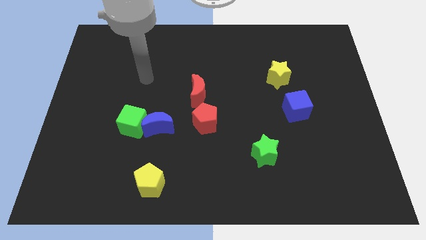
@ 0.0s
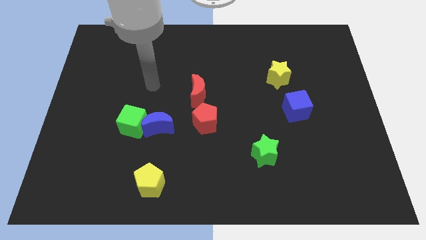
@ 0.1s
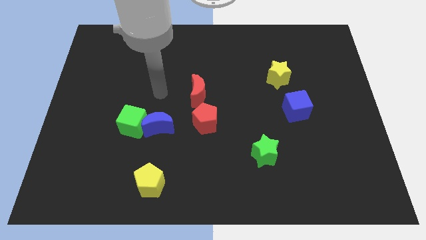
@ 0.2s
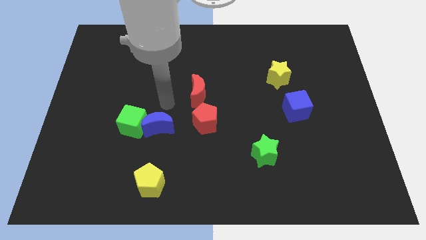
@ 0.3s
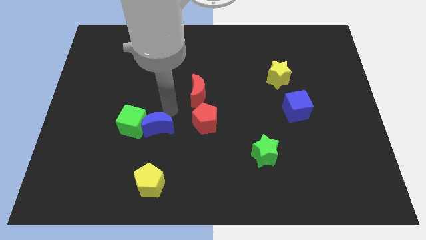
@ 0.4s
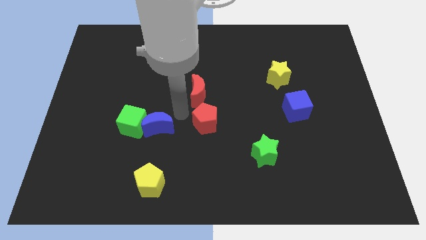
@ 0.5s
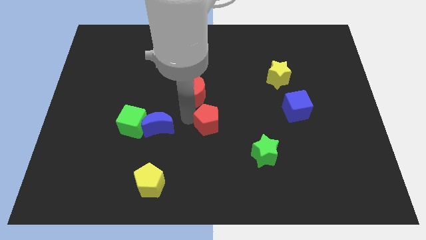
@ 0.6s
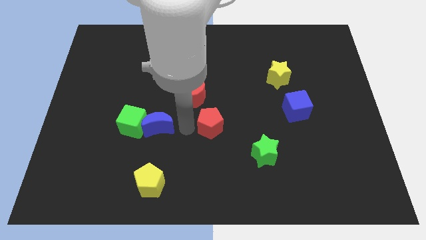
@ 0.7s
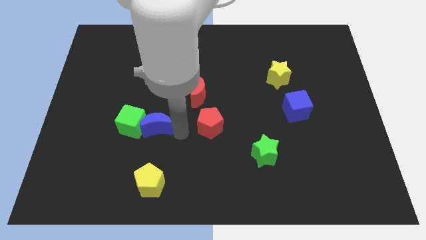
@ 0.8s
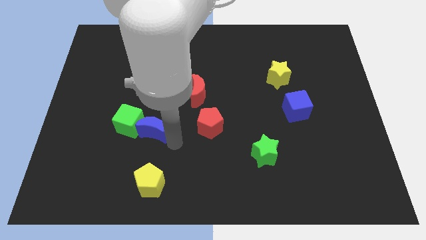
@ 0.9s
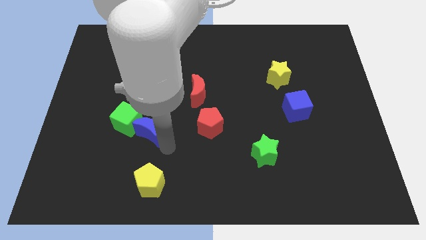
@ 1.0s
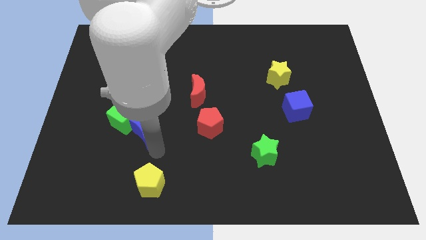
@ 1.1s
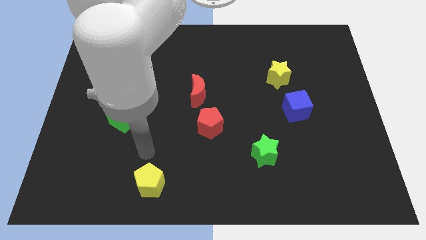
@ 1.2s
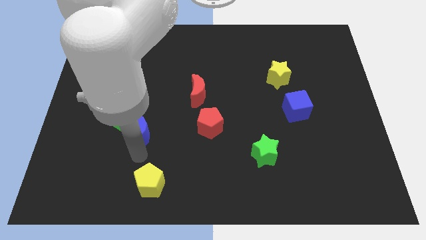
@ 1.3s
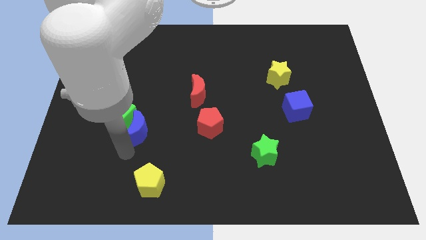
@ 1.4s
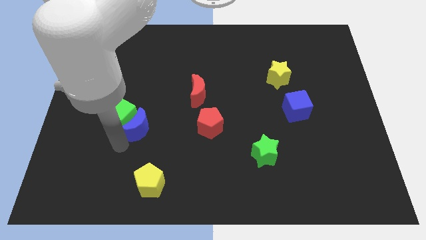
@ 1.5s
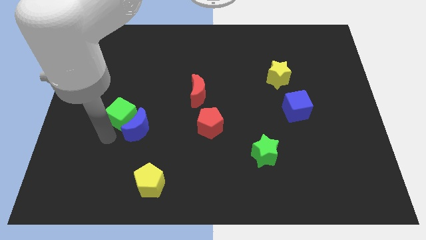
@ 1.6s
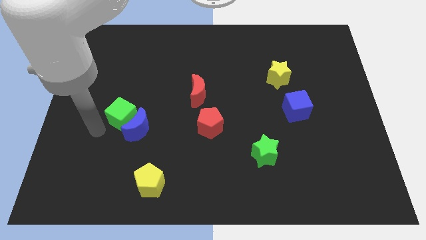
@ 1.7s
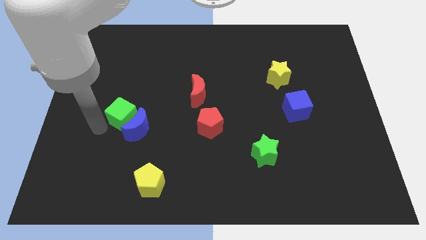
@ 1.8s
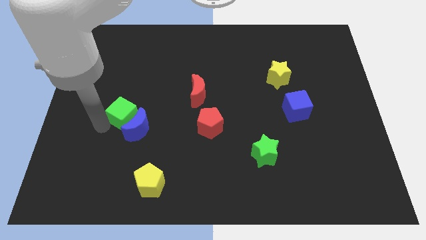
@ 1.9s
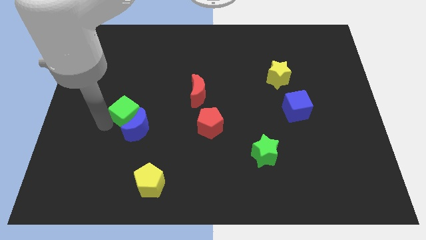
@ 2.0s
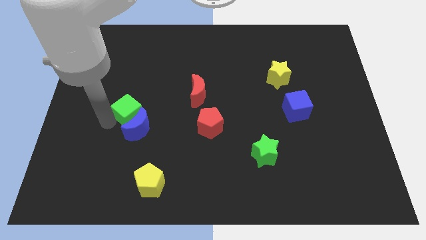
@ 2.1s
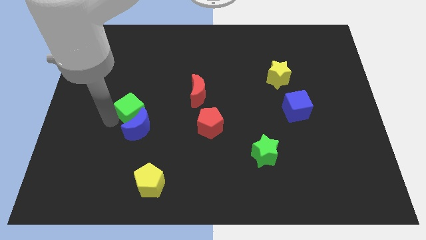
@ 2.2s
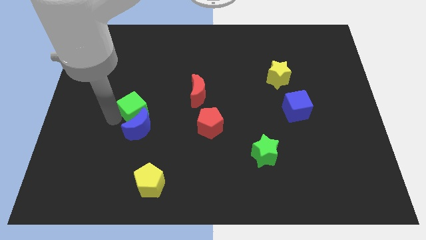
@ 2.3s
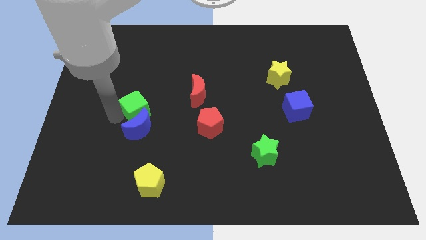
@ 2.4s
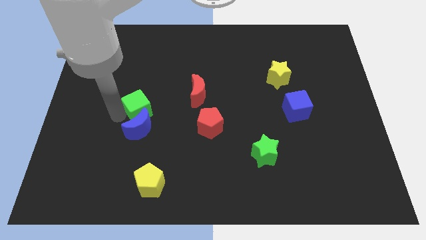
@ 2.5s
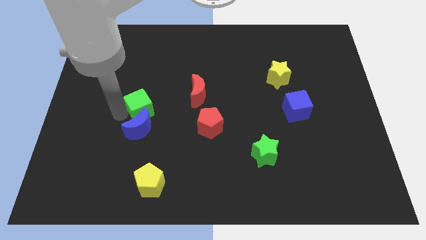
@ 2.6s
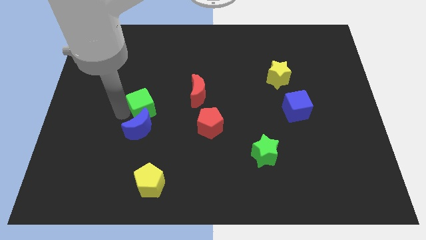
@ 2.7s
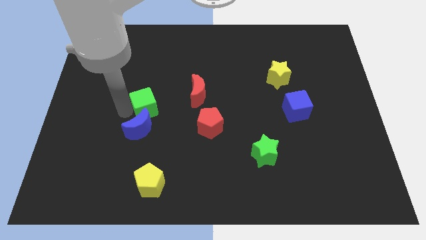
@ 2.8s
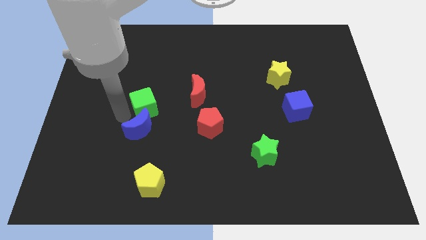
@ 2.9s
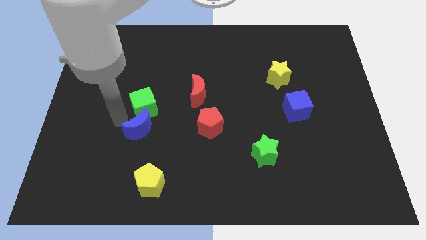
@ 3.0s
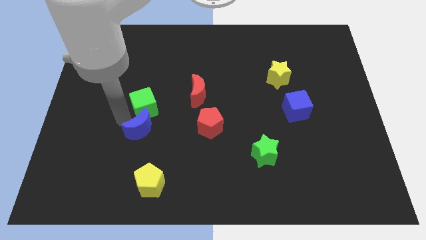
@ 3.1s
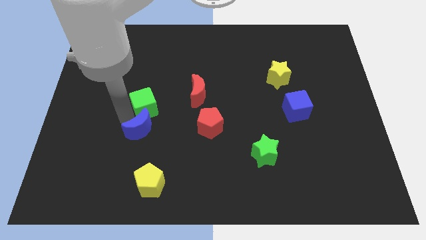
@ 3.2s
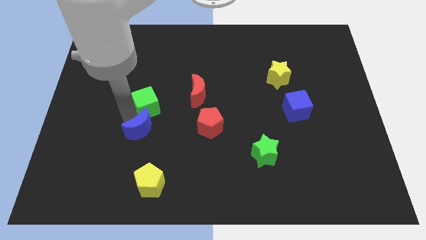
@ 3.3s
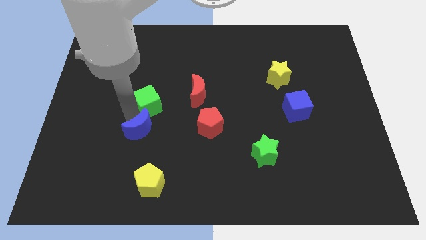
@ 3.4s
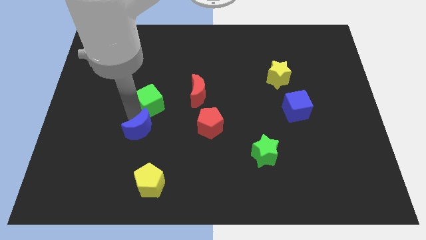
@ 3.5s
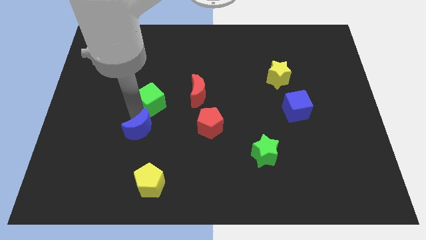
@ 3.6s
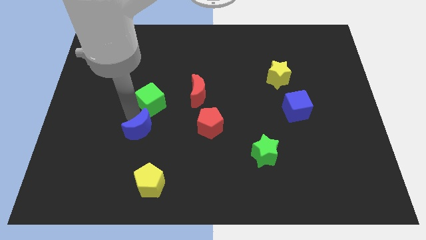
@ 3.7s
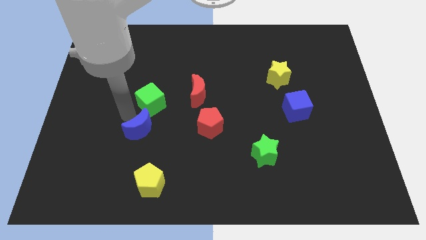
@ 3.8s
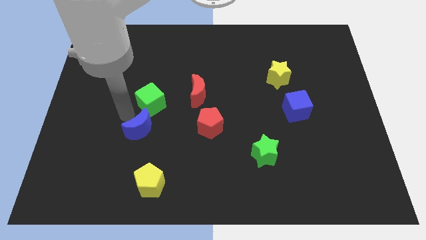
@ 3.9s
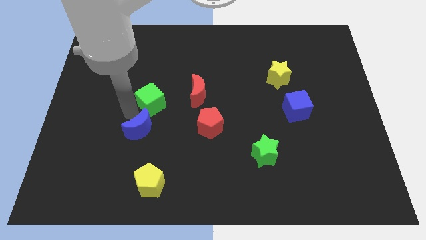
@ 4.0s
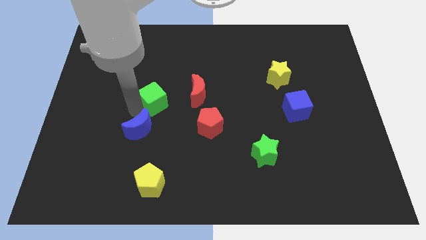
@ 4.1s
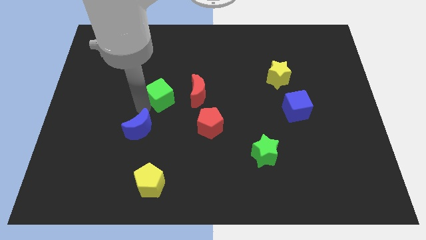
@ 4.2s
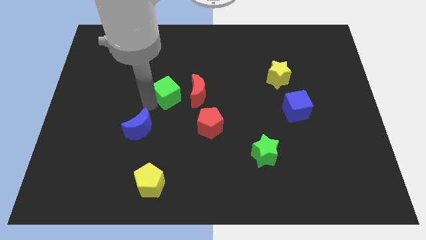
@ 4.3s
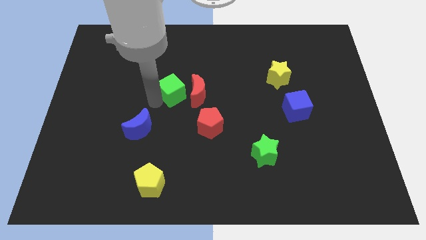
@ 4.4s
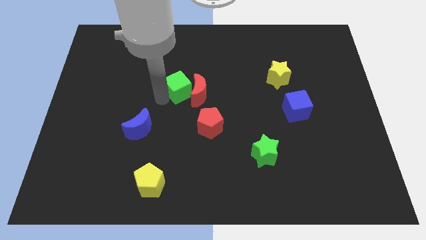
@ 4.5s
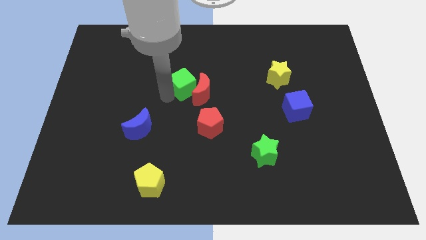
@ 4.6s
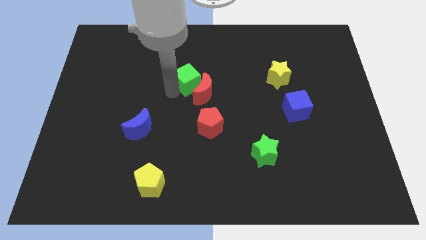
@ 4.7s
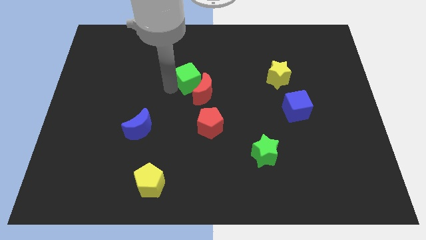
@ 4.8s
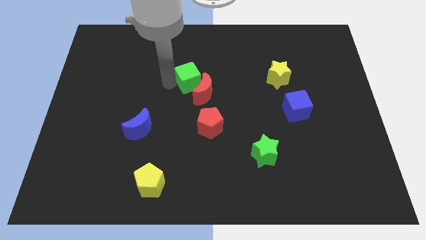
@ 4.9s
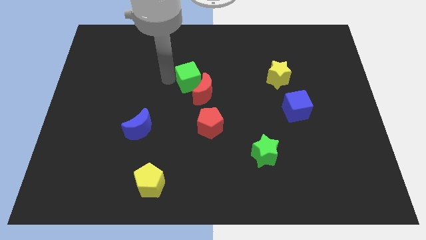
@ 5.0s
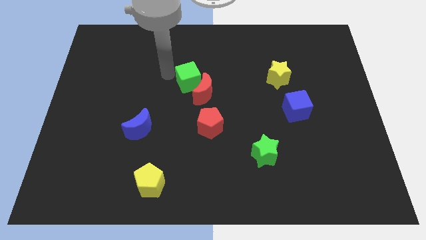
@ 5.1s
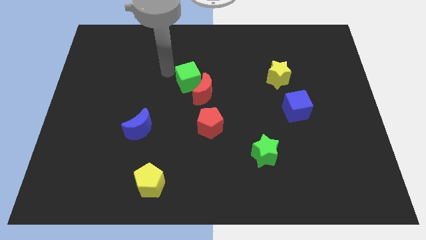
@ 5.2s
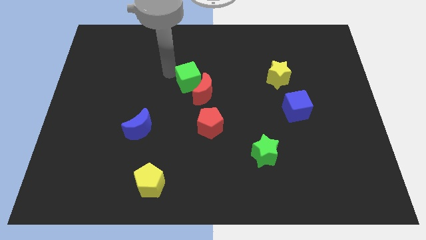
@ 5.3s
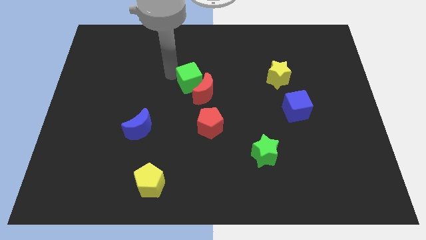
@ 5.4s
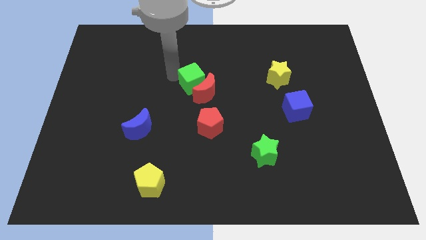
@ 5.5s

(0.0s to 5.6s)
put the green cube to the top side of the red pentagon

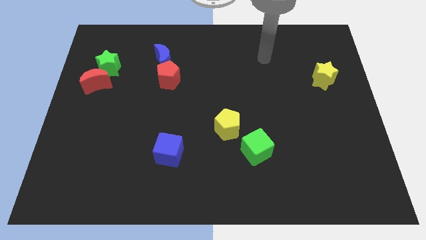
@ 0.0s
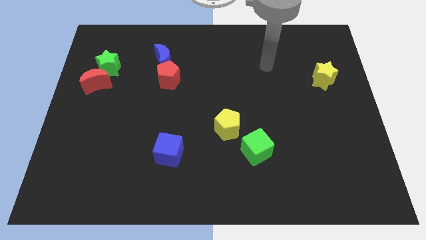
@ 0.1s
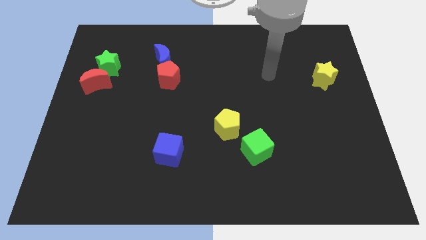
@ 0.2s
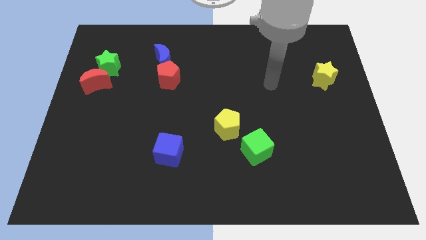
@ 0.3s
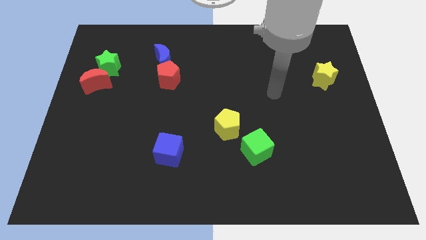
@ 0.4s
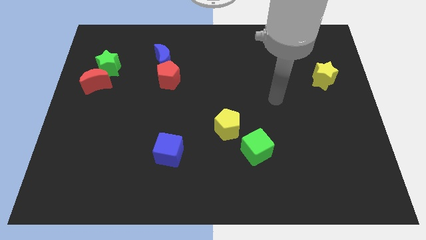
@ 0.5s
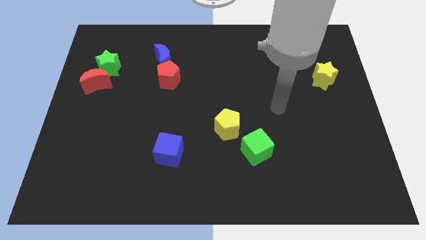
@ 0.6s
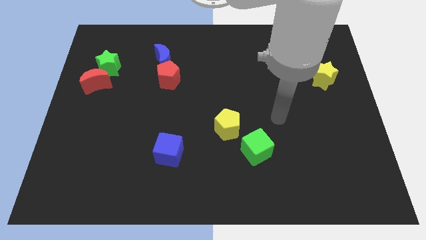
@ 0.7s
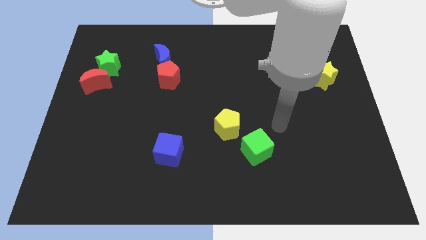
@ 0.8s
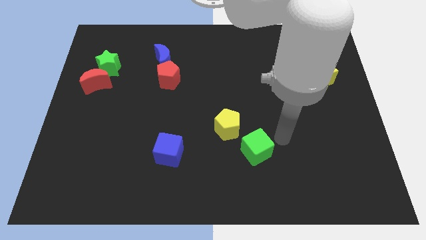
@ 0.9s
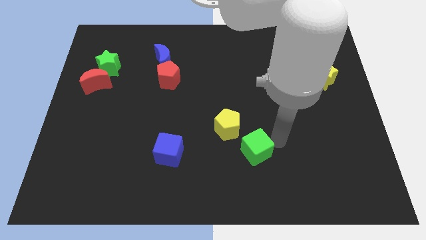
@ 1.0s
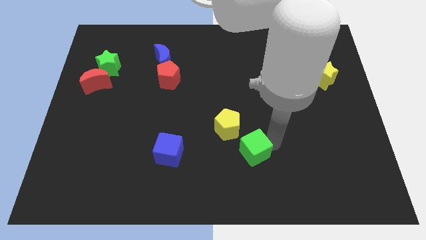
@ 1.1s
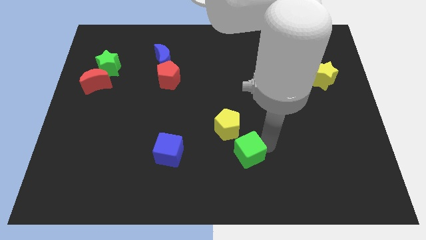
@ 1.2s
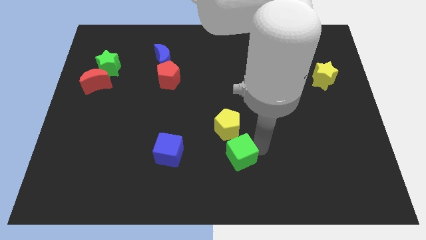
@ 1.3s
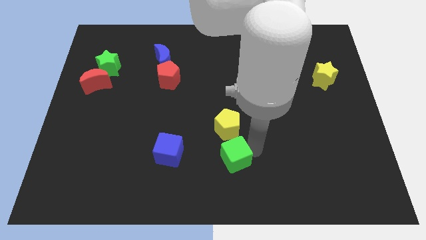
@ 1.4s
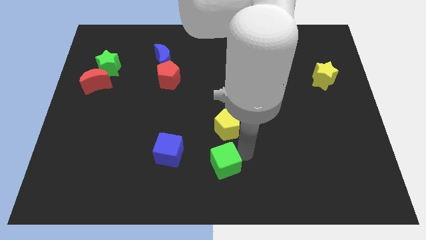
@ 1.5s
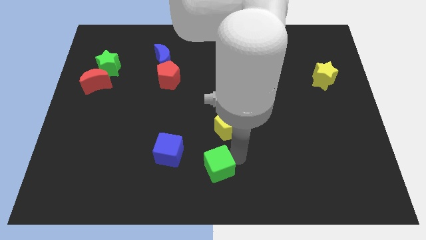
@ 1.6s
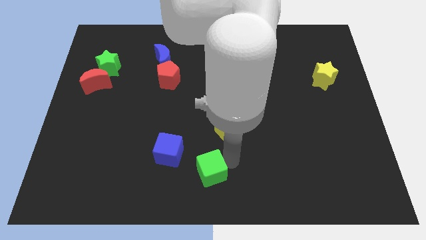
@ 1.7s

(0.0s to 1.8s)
push the green cube to the bottom right side of the blue cube
